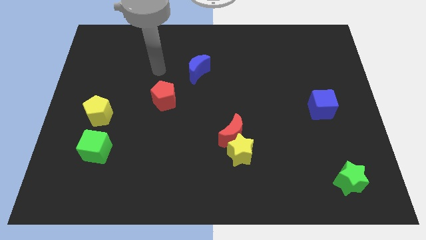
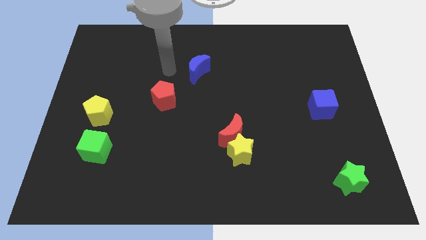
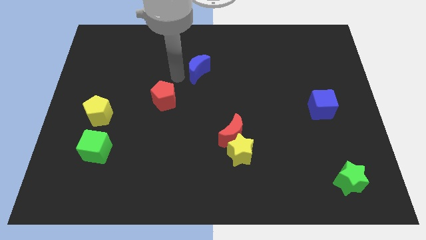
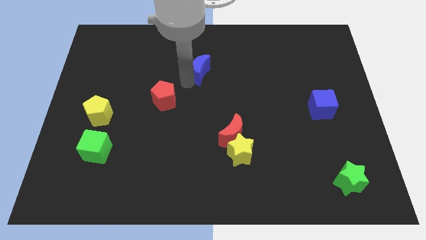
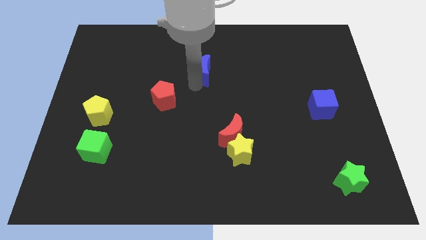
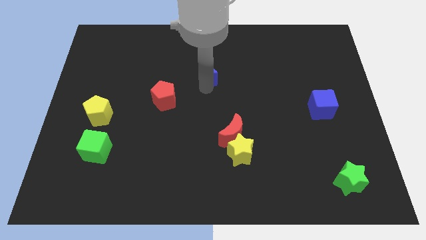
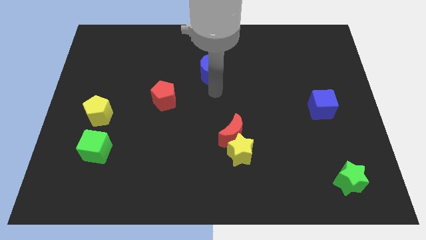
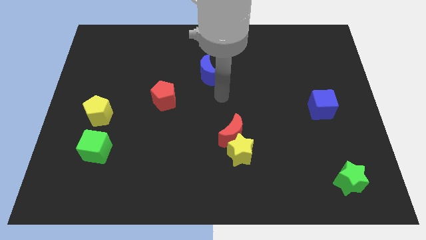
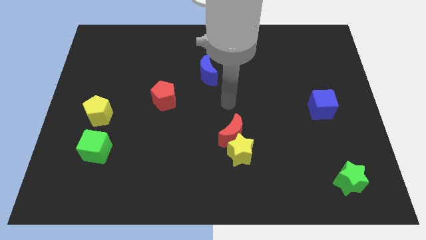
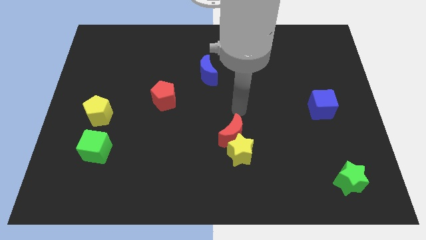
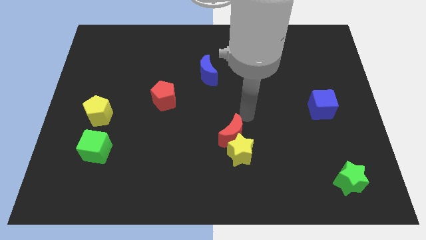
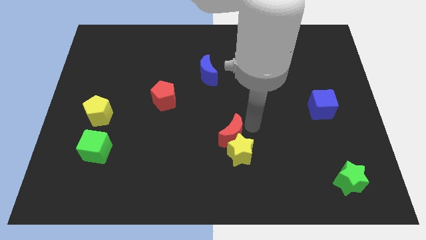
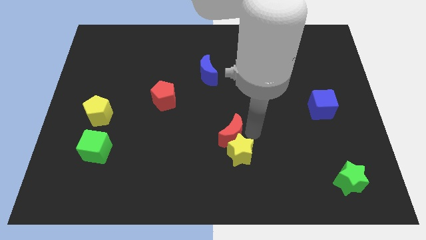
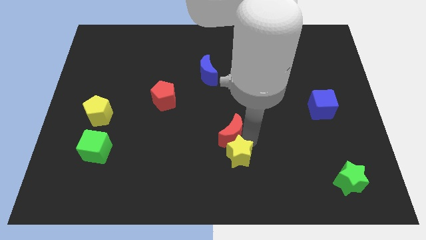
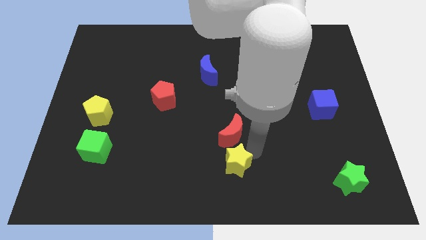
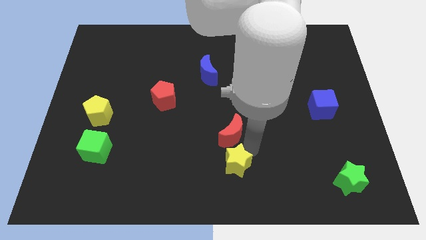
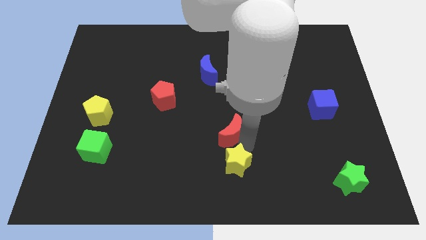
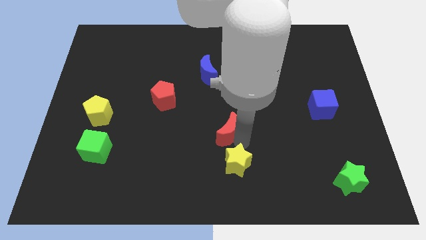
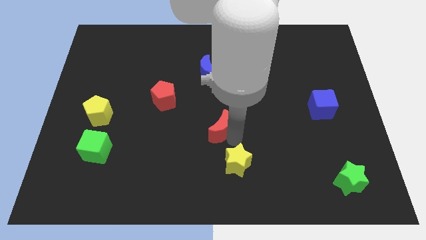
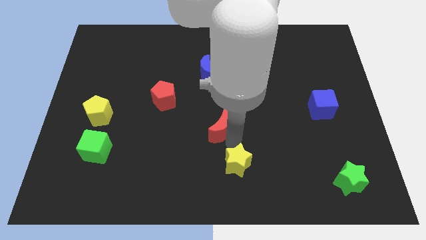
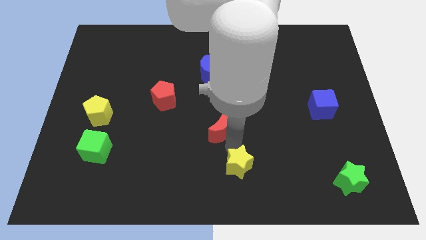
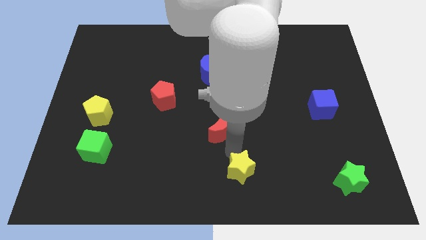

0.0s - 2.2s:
move the red moon away from the yellow star

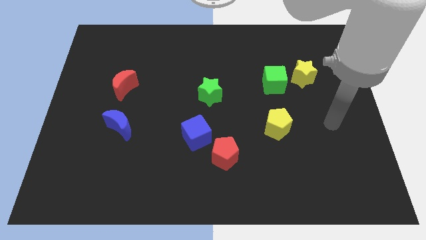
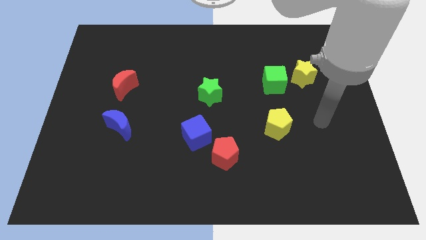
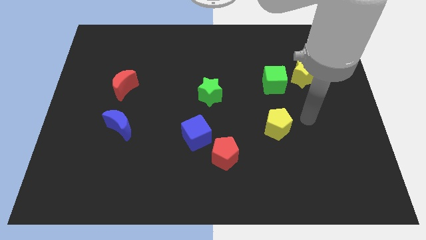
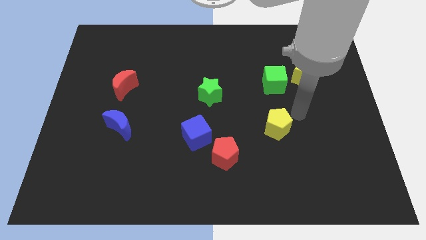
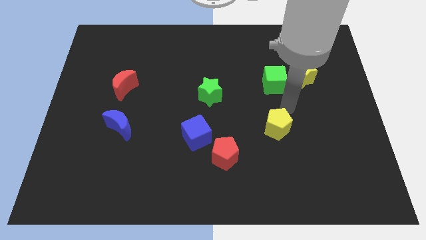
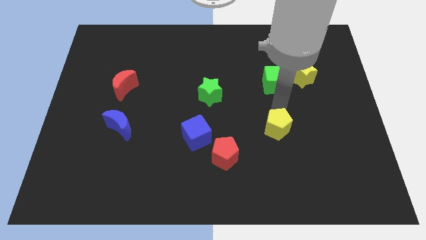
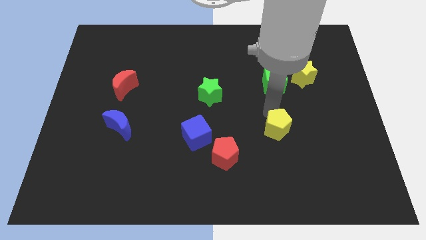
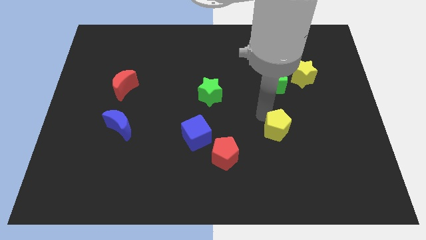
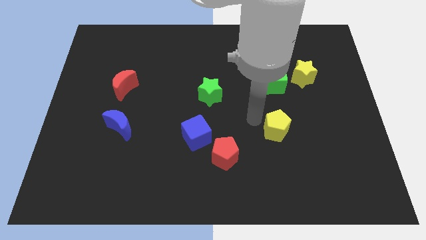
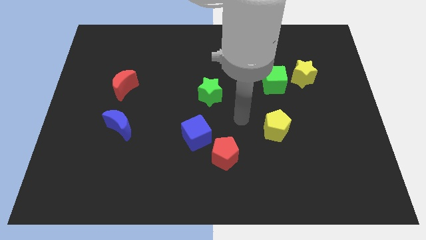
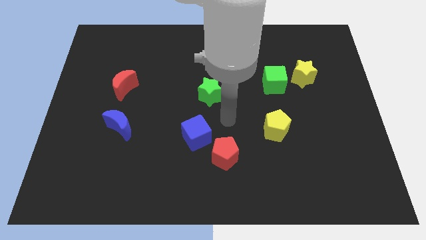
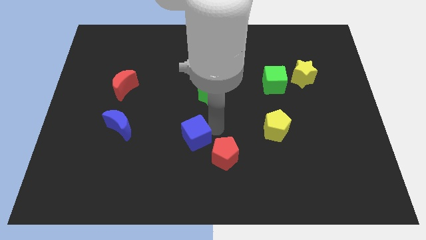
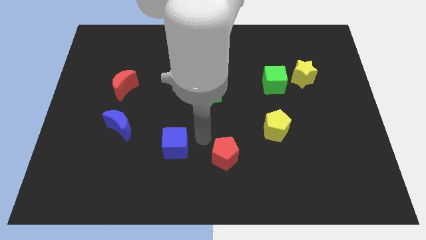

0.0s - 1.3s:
pull the red pentagon apart from the blue cube

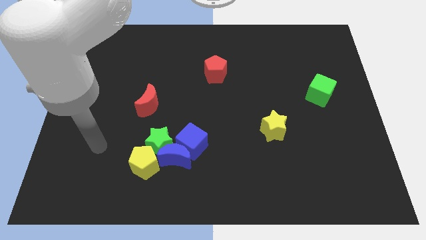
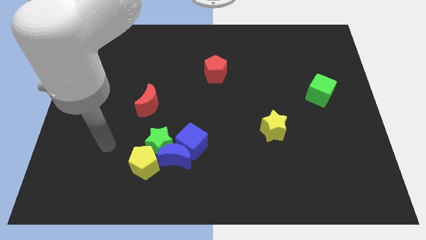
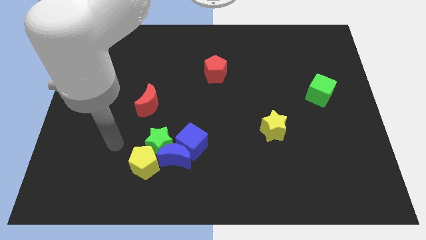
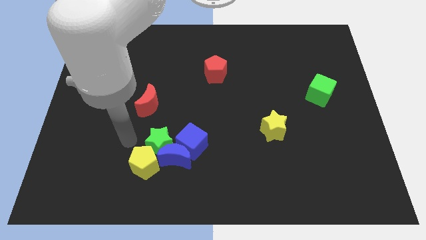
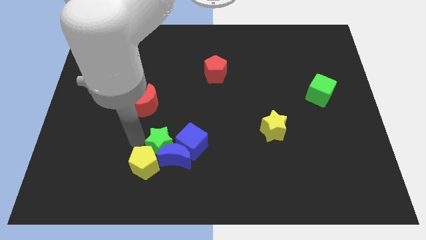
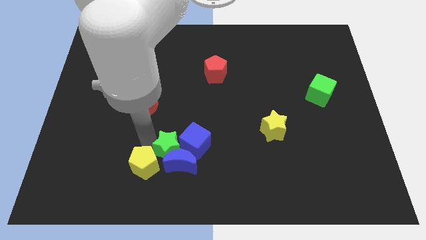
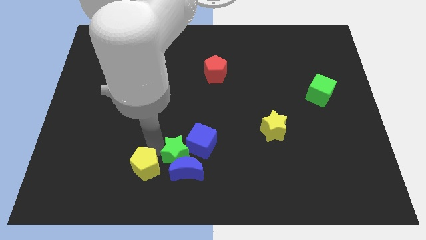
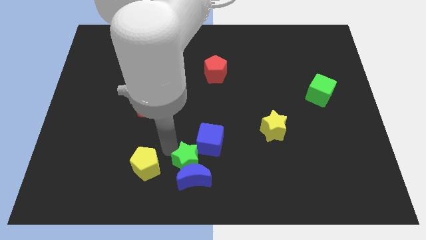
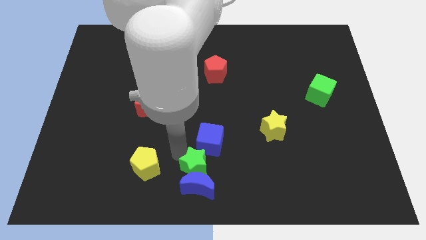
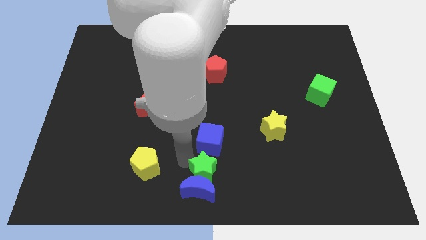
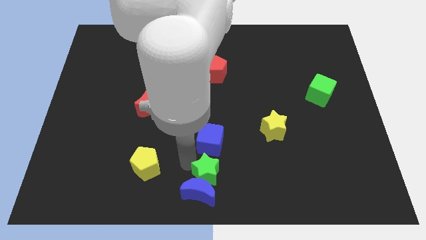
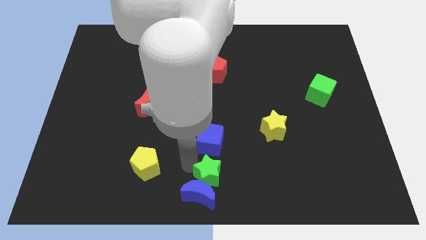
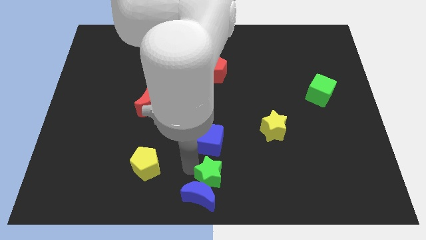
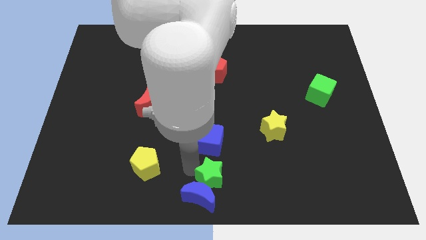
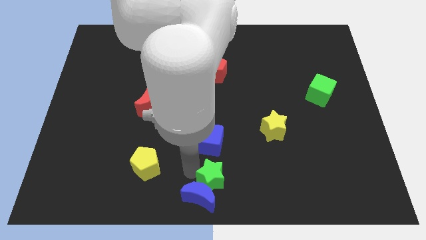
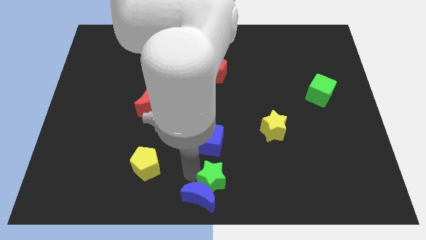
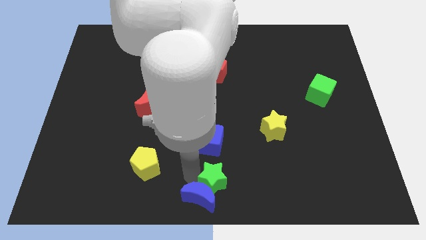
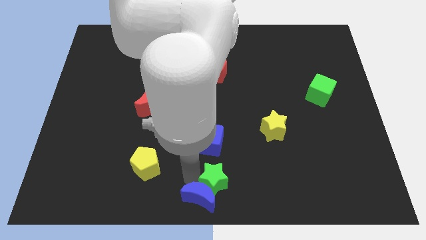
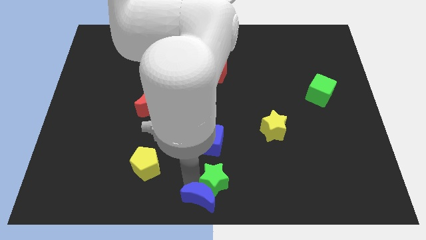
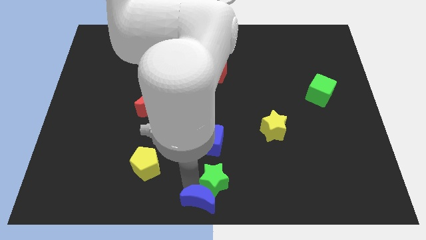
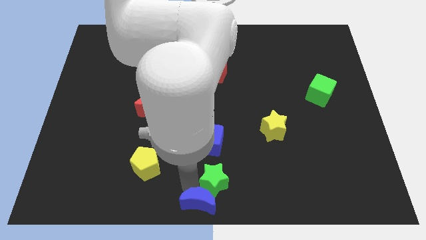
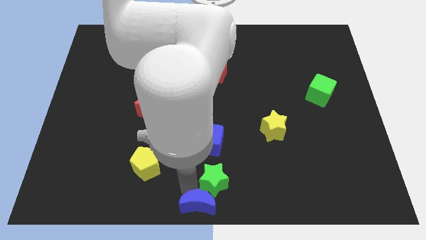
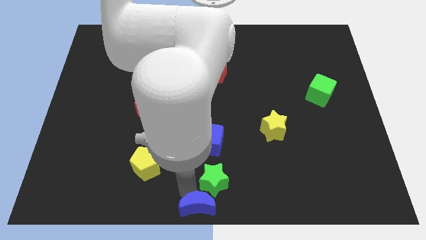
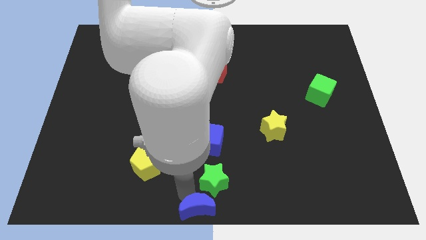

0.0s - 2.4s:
move the blue moon away from the group

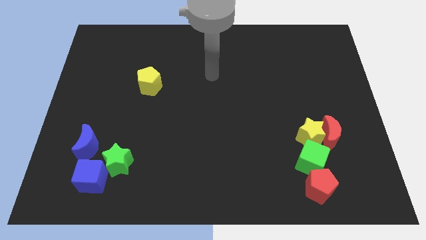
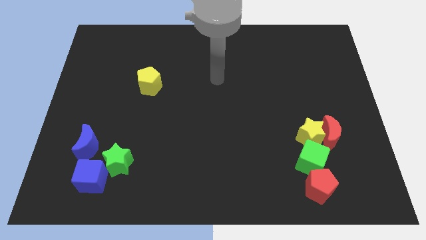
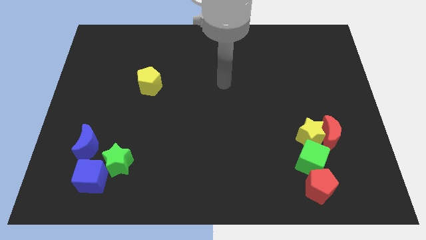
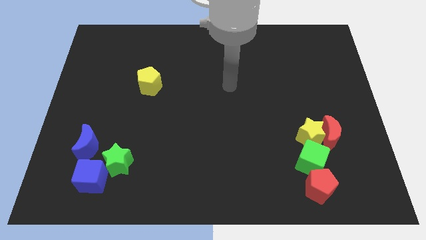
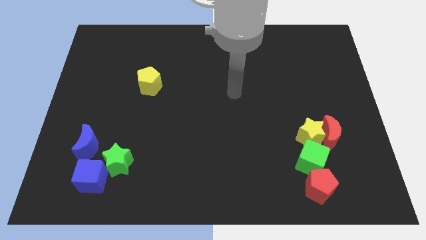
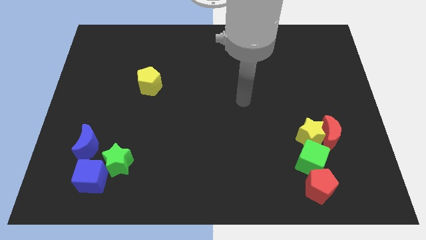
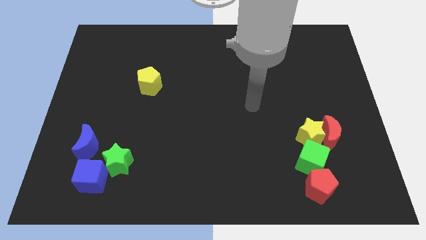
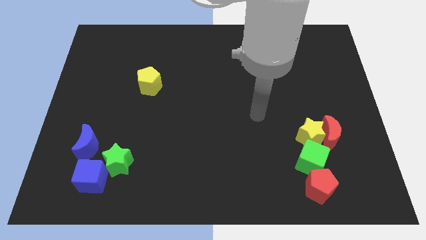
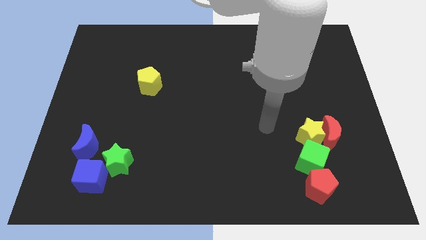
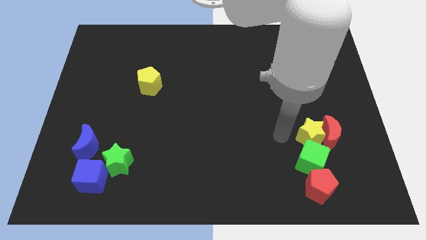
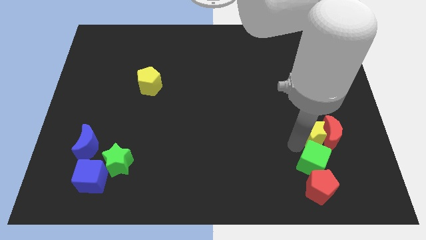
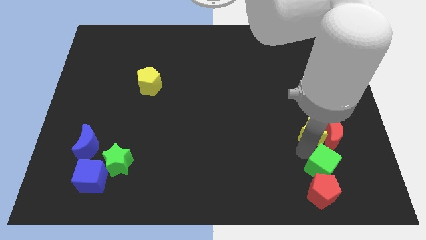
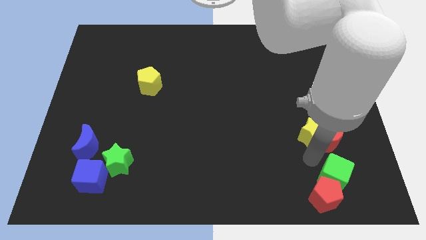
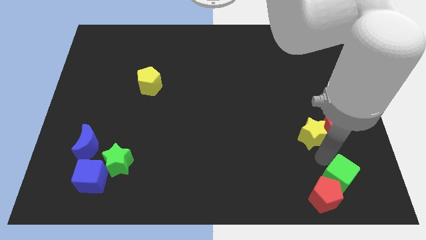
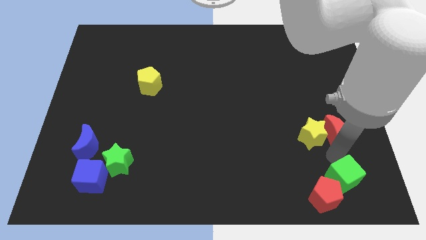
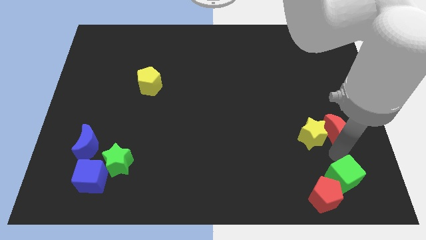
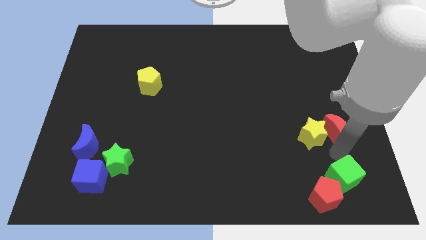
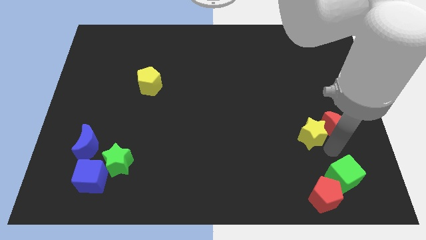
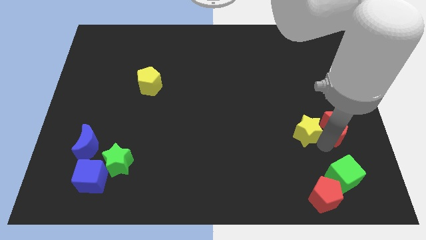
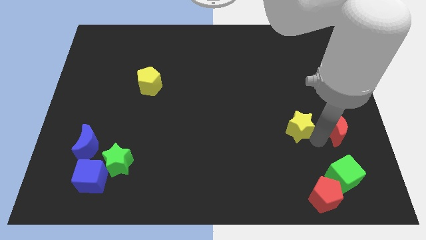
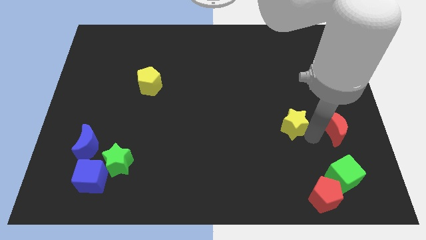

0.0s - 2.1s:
move the yellow star away from the red moon and green cube

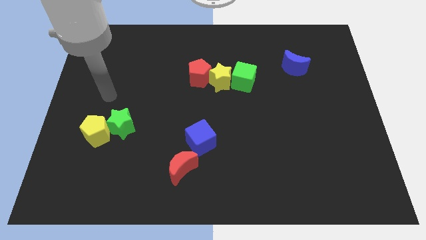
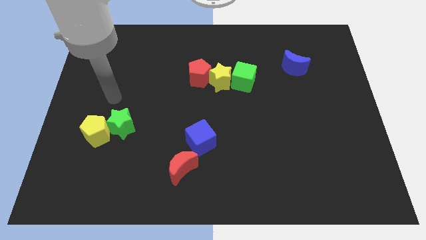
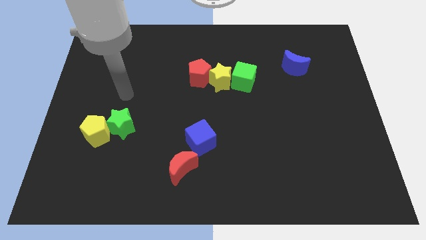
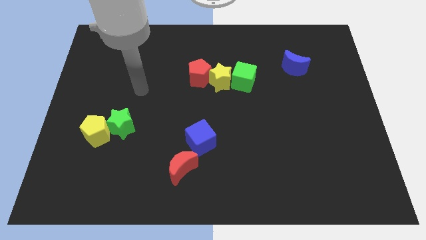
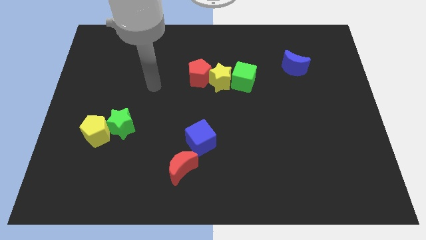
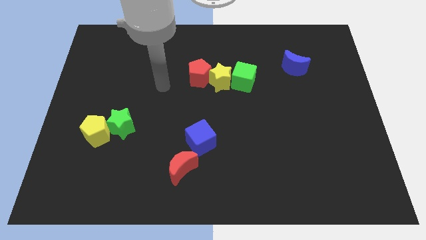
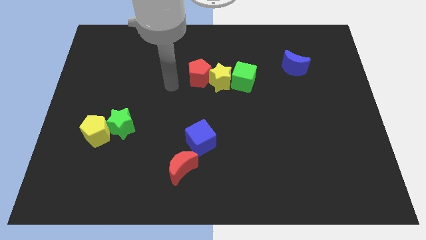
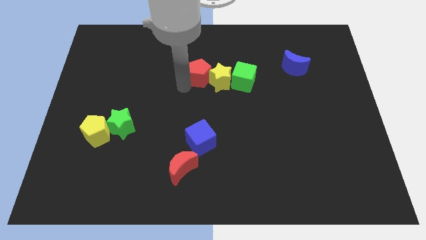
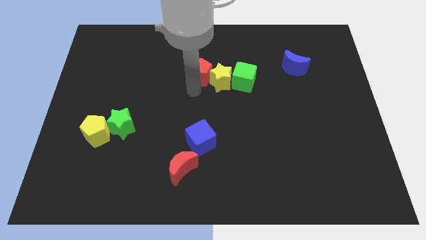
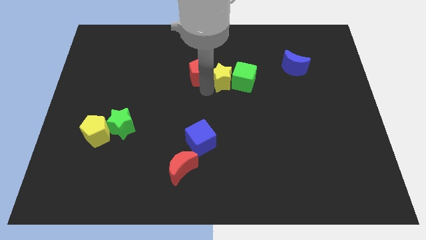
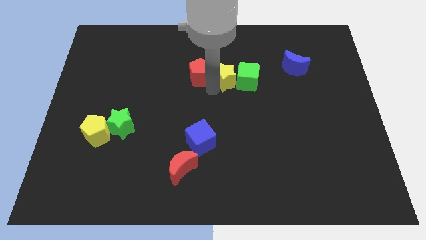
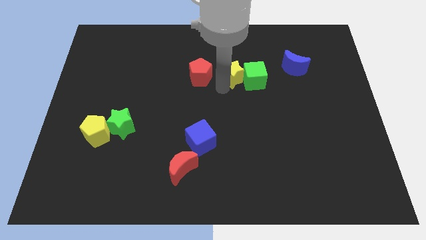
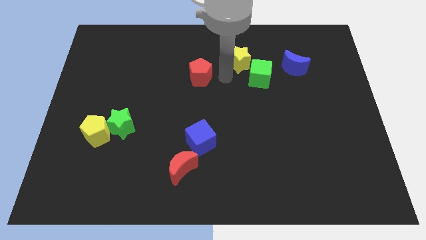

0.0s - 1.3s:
move the red pentagon away from the yellow star
